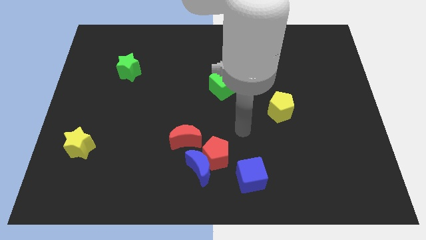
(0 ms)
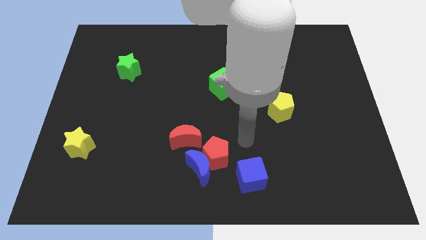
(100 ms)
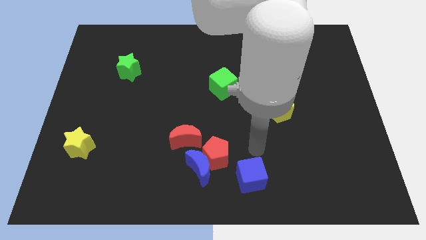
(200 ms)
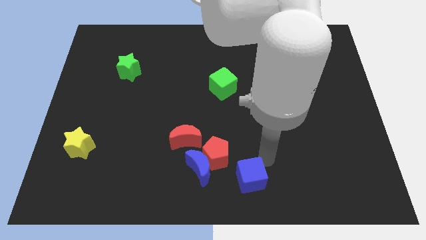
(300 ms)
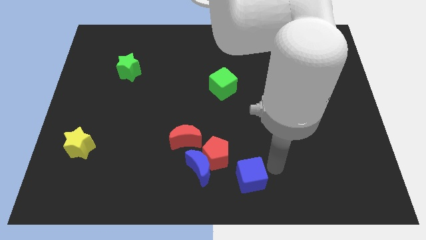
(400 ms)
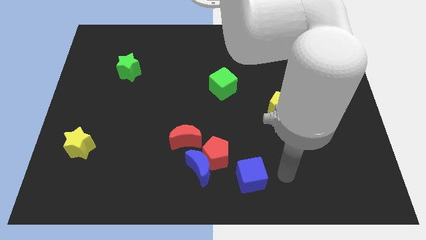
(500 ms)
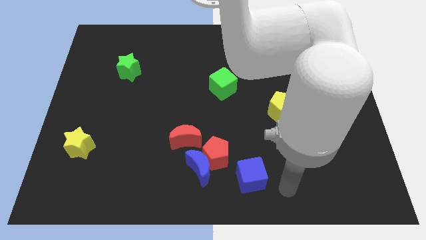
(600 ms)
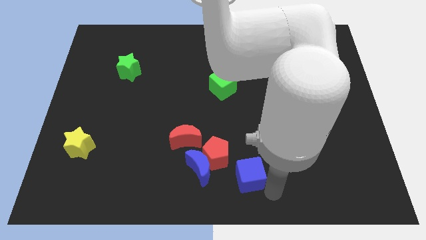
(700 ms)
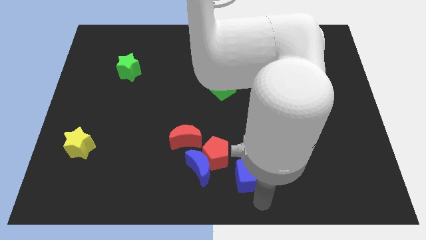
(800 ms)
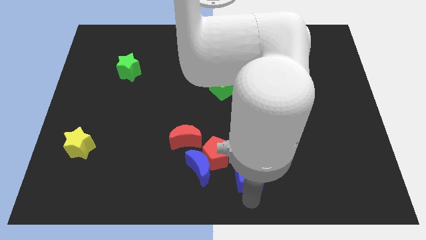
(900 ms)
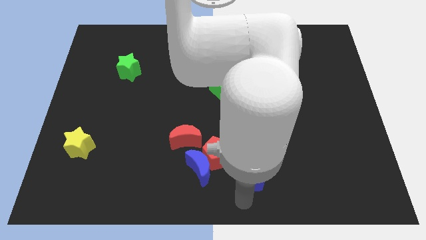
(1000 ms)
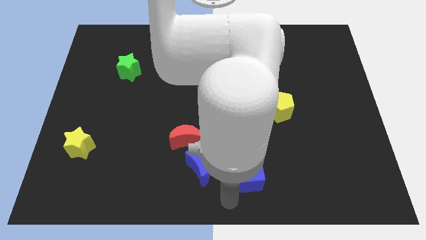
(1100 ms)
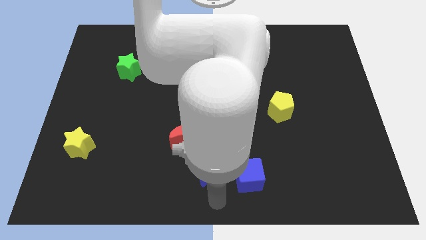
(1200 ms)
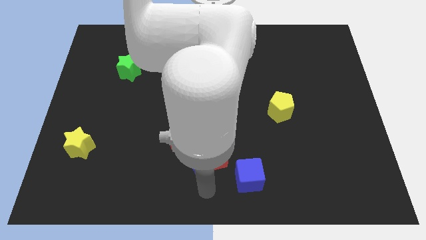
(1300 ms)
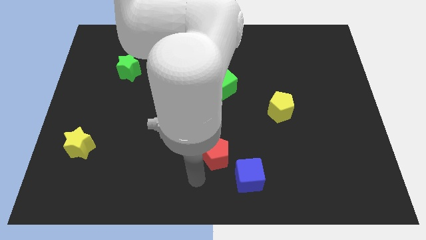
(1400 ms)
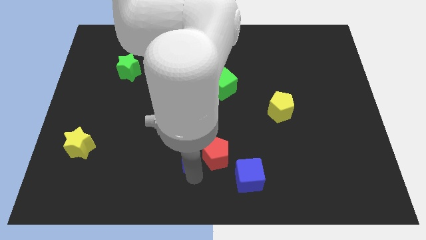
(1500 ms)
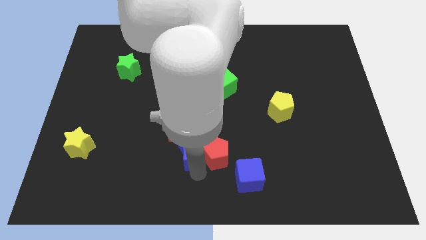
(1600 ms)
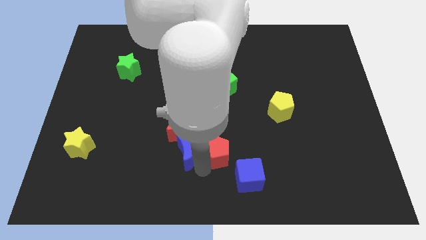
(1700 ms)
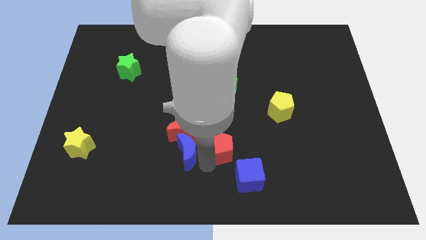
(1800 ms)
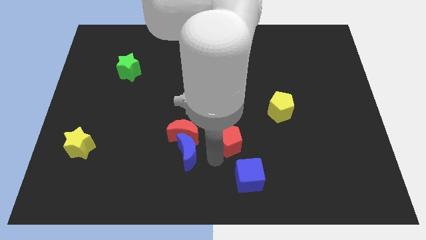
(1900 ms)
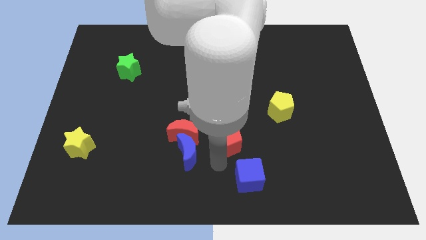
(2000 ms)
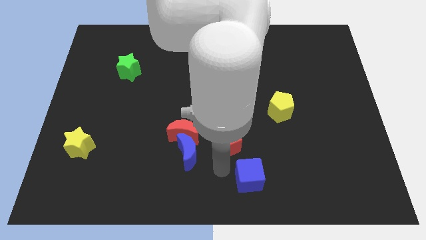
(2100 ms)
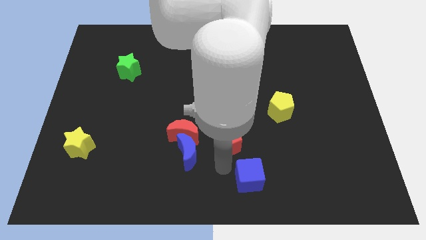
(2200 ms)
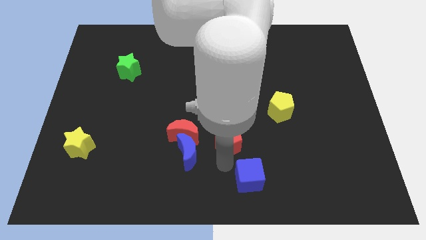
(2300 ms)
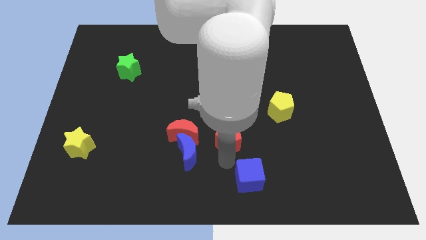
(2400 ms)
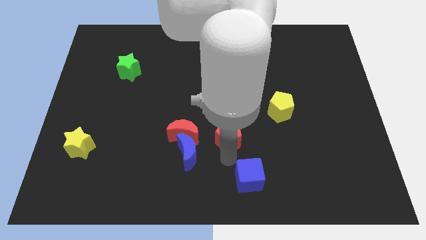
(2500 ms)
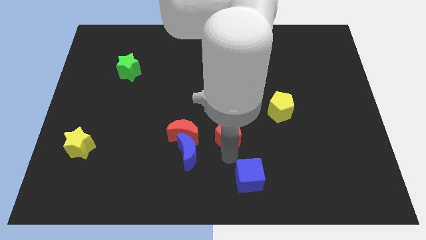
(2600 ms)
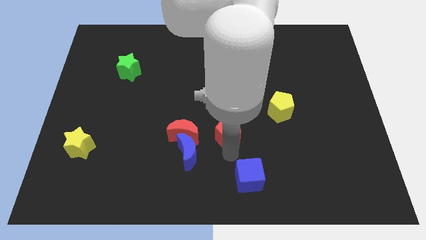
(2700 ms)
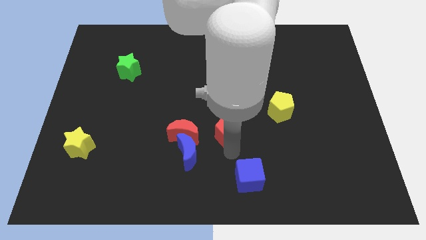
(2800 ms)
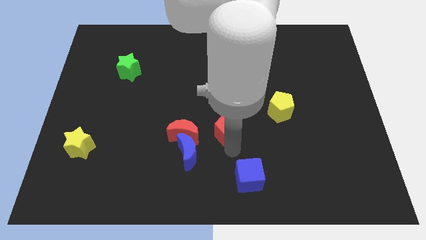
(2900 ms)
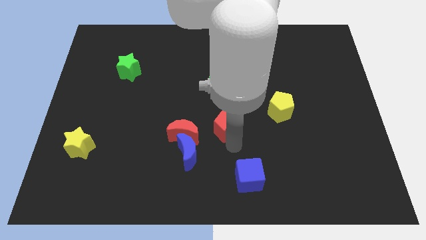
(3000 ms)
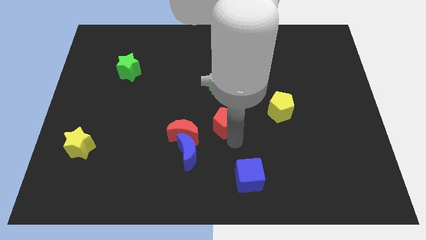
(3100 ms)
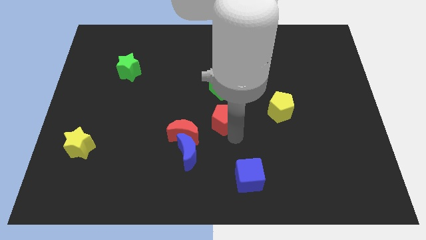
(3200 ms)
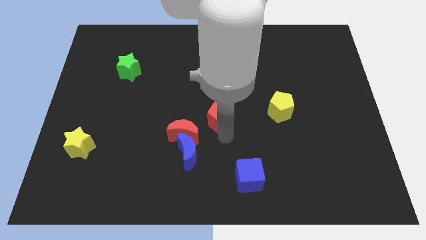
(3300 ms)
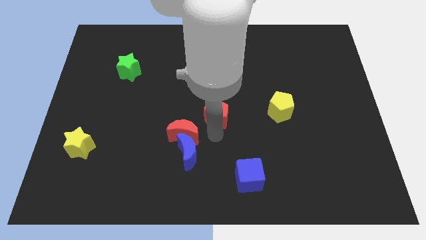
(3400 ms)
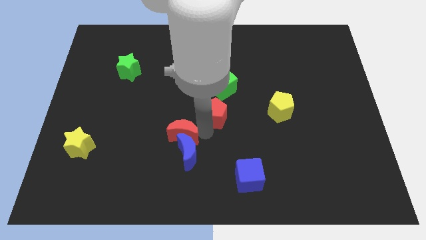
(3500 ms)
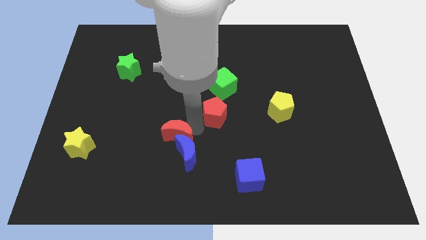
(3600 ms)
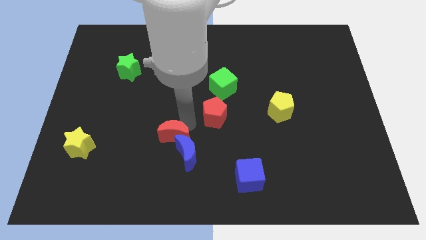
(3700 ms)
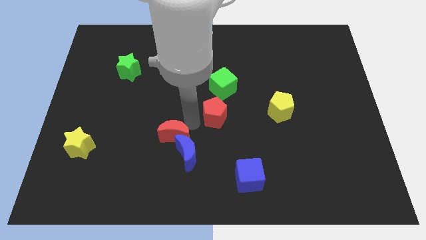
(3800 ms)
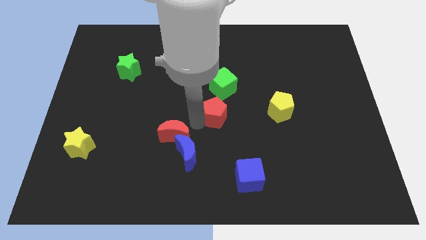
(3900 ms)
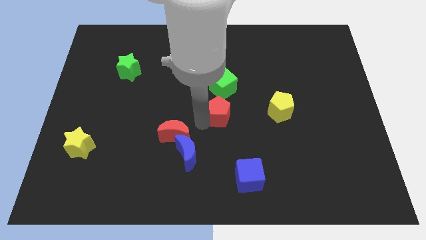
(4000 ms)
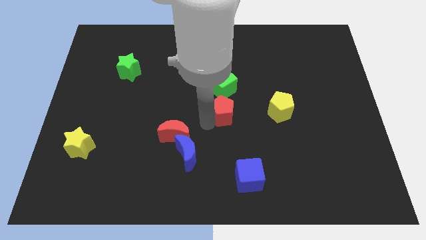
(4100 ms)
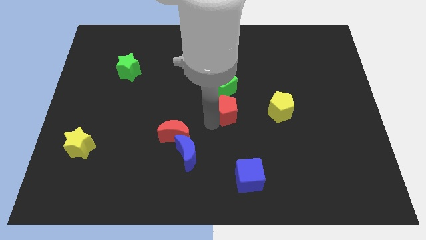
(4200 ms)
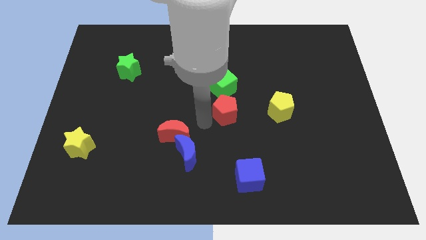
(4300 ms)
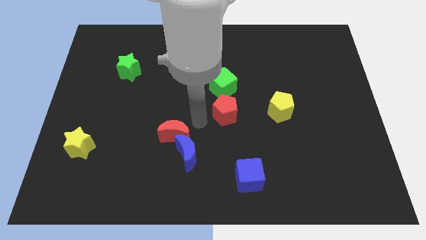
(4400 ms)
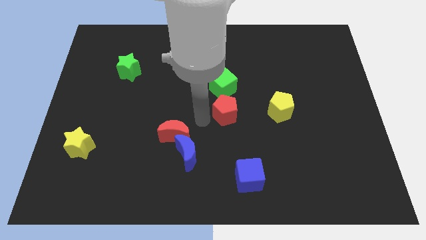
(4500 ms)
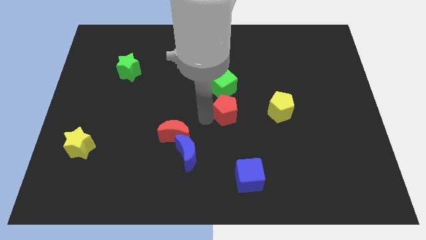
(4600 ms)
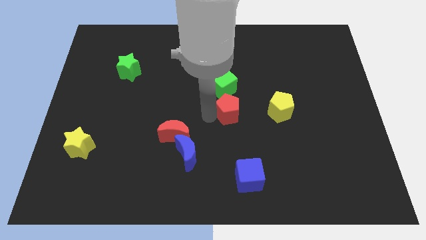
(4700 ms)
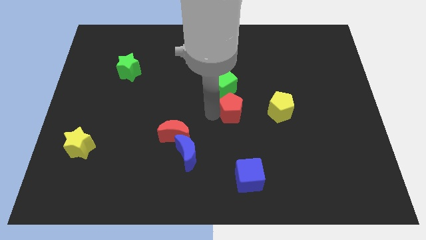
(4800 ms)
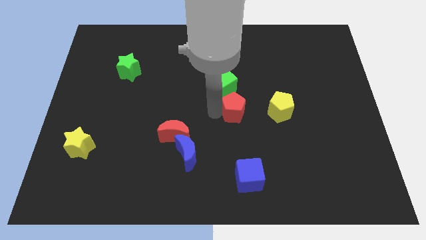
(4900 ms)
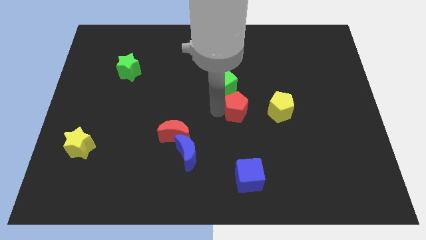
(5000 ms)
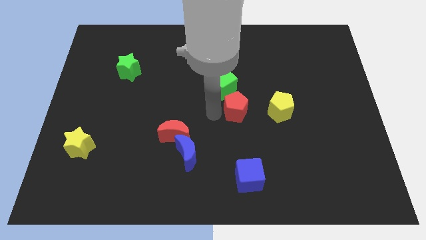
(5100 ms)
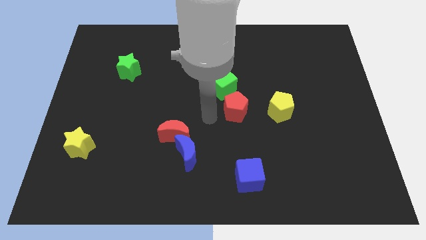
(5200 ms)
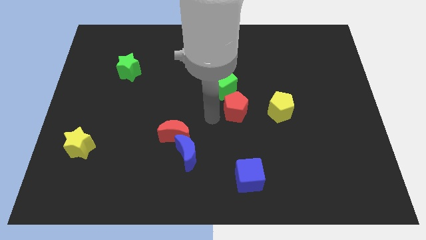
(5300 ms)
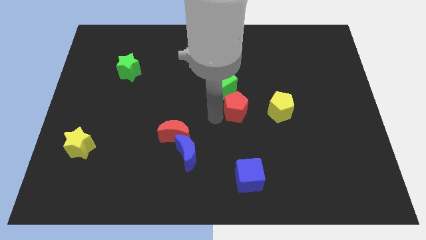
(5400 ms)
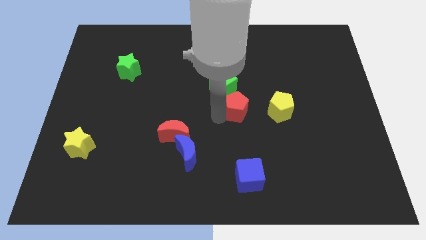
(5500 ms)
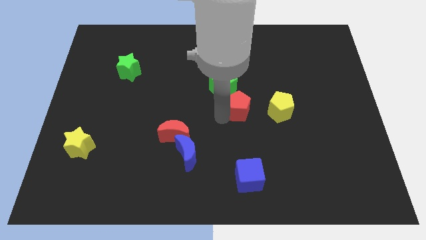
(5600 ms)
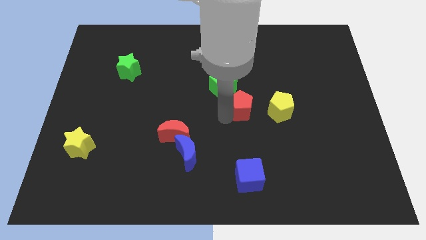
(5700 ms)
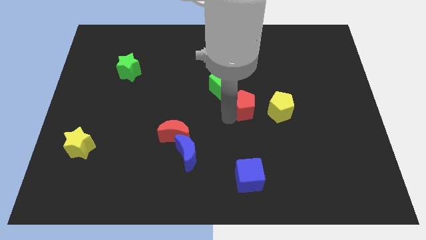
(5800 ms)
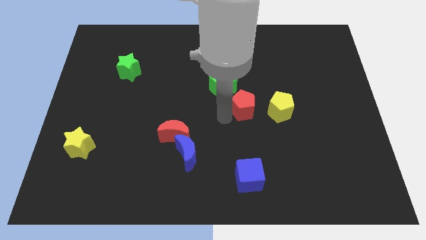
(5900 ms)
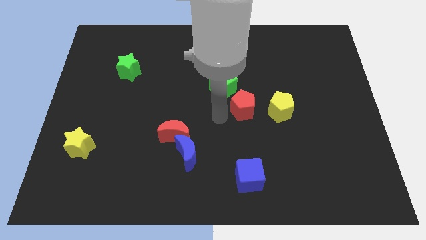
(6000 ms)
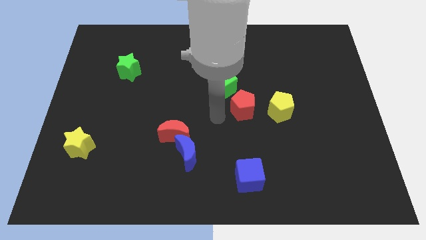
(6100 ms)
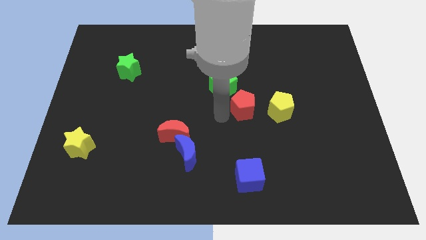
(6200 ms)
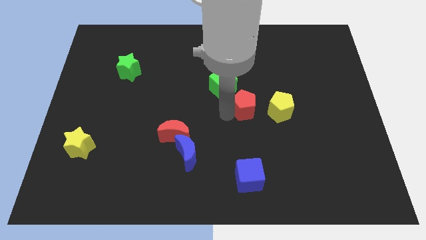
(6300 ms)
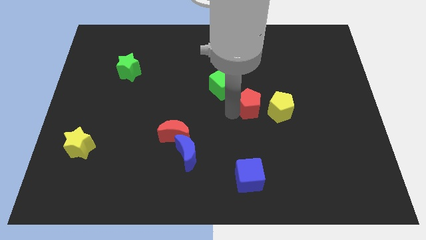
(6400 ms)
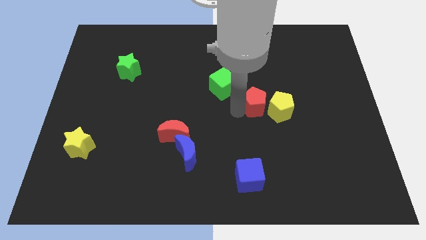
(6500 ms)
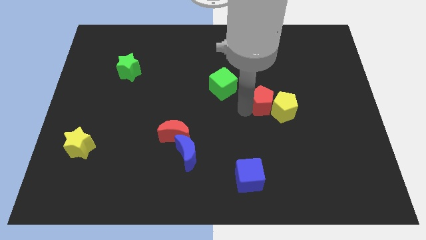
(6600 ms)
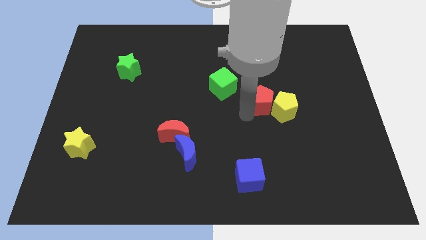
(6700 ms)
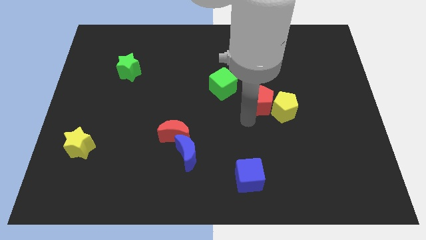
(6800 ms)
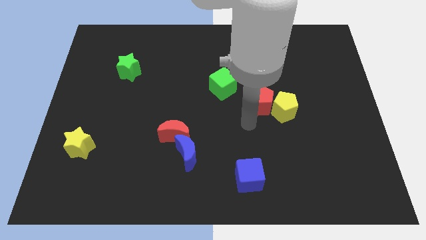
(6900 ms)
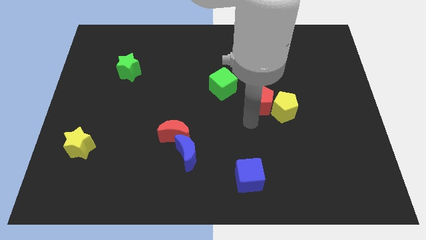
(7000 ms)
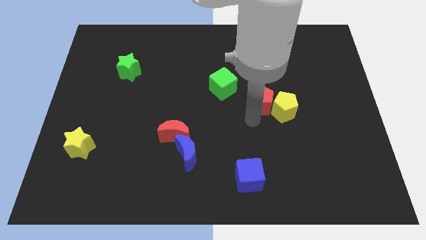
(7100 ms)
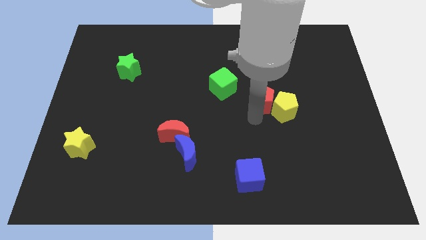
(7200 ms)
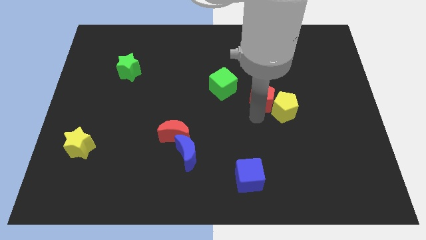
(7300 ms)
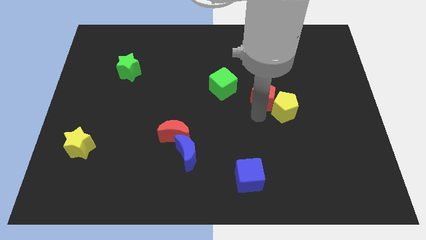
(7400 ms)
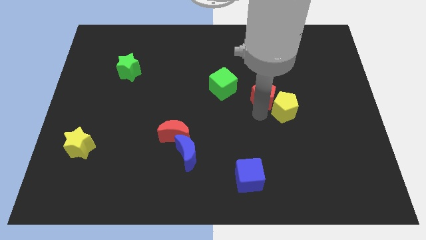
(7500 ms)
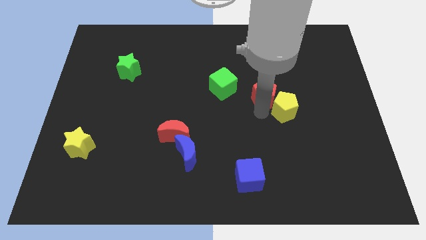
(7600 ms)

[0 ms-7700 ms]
slide the red pentagon to the top of the yellow pentagon
